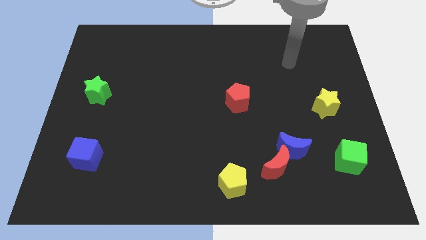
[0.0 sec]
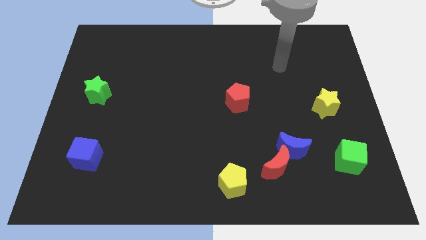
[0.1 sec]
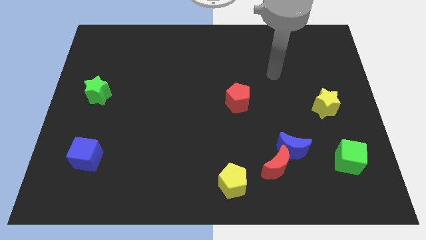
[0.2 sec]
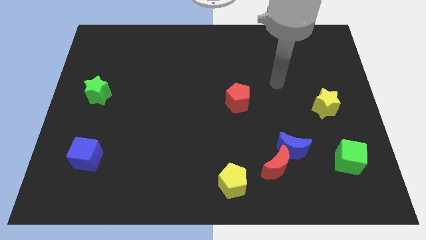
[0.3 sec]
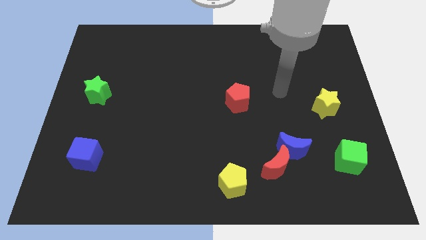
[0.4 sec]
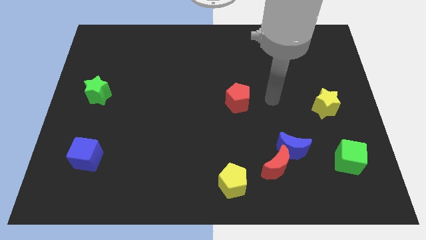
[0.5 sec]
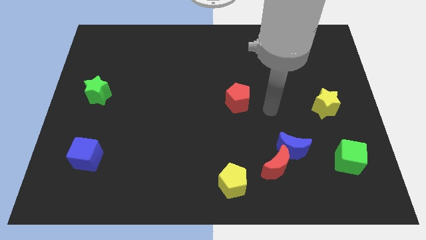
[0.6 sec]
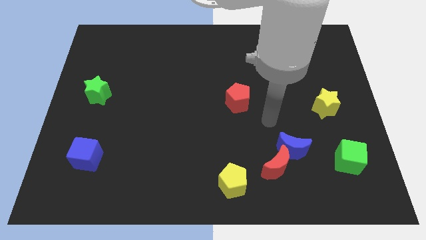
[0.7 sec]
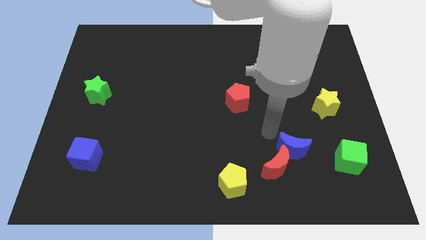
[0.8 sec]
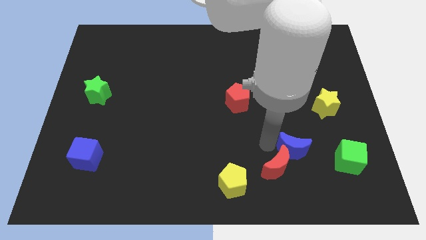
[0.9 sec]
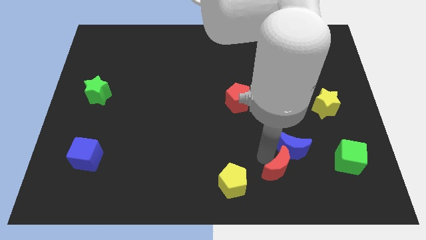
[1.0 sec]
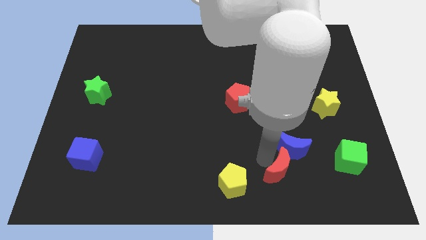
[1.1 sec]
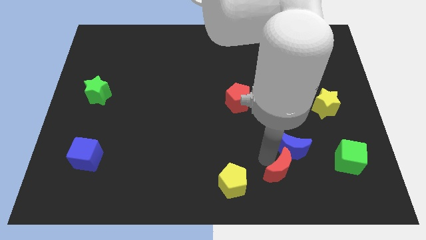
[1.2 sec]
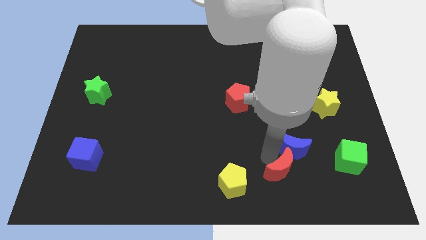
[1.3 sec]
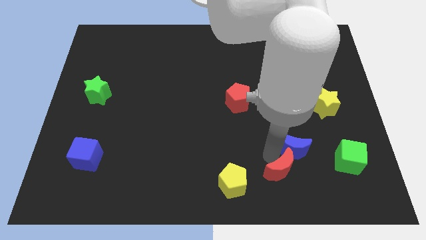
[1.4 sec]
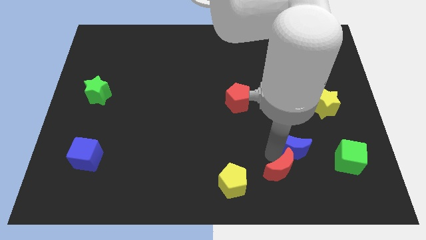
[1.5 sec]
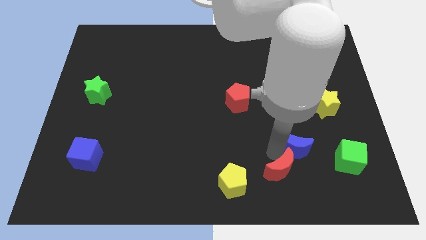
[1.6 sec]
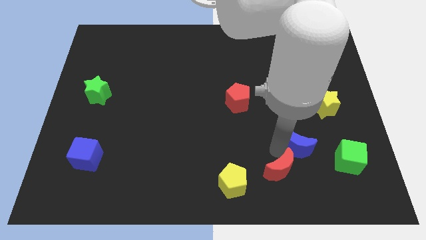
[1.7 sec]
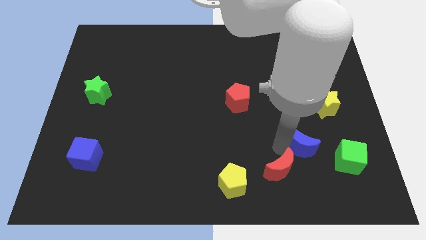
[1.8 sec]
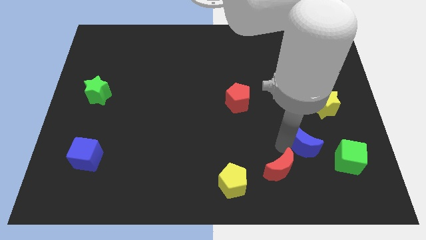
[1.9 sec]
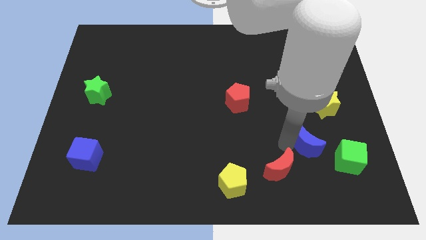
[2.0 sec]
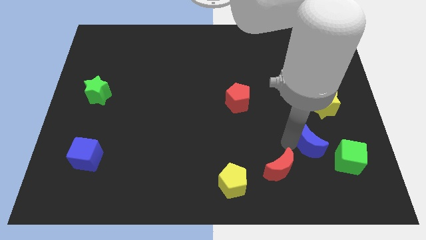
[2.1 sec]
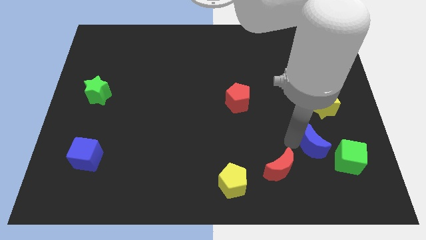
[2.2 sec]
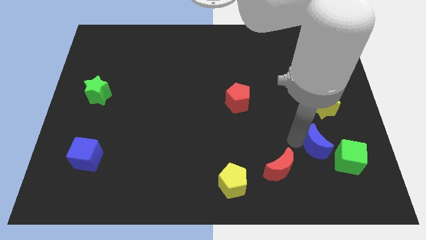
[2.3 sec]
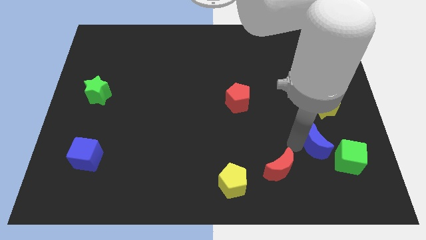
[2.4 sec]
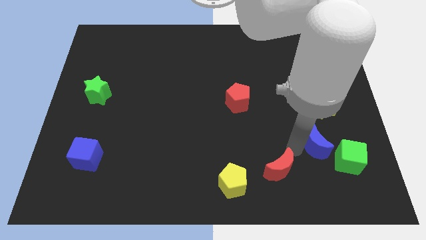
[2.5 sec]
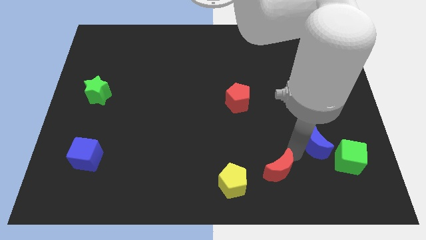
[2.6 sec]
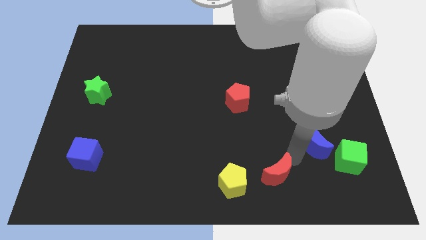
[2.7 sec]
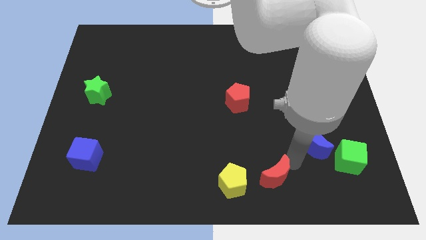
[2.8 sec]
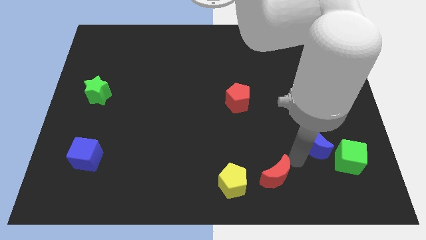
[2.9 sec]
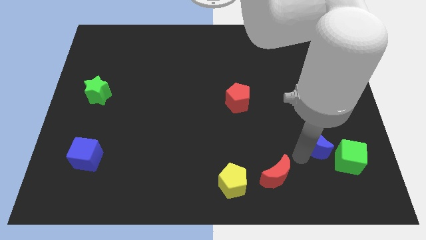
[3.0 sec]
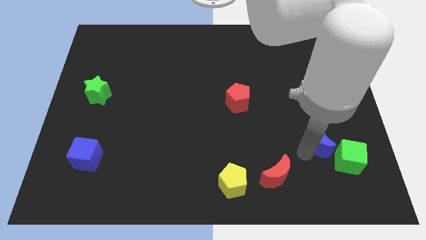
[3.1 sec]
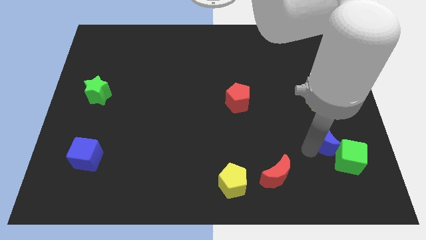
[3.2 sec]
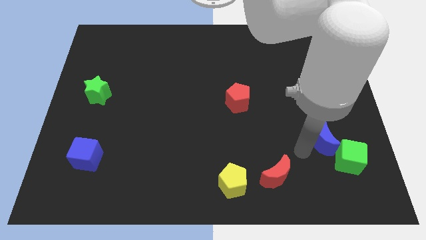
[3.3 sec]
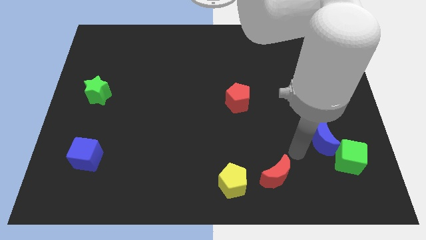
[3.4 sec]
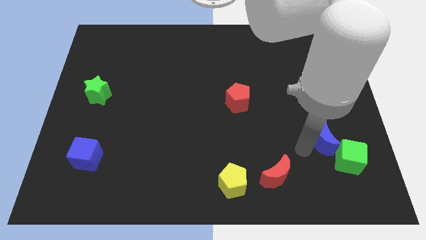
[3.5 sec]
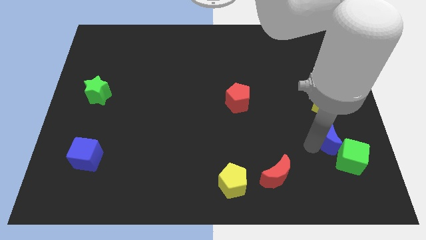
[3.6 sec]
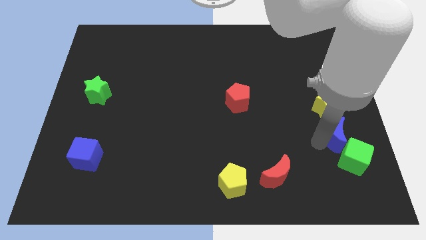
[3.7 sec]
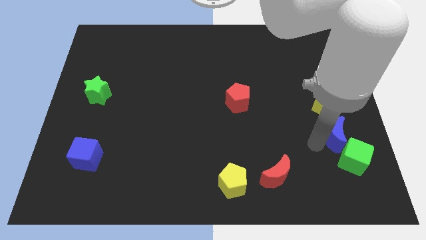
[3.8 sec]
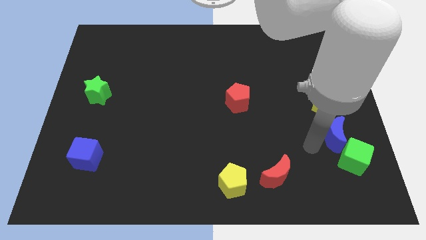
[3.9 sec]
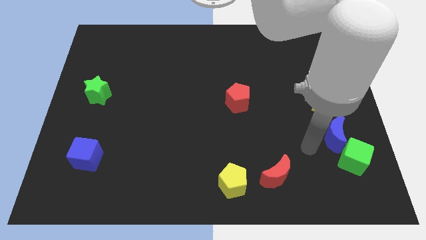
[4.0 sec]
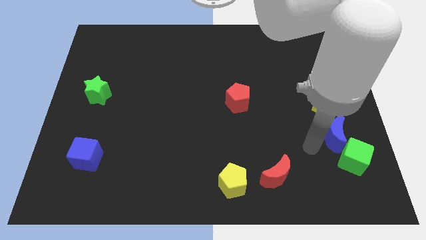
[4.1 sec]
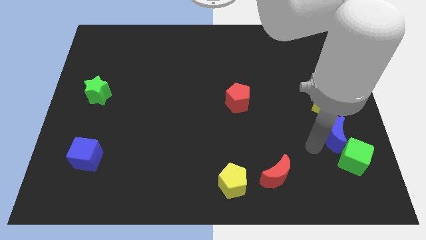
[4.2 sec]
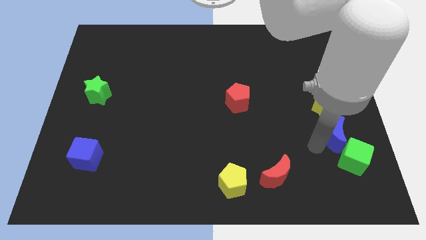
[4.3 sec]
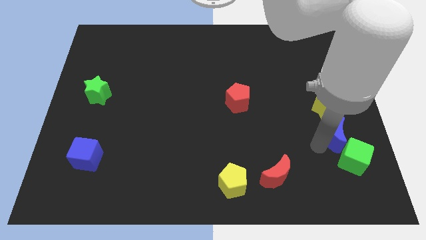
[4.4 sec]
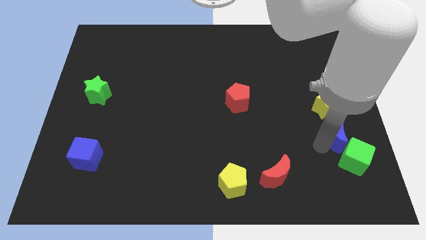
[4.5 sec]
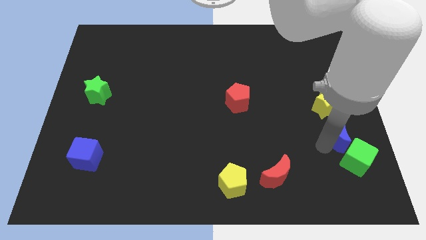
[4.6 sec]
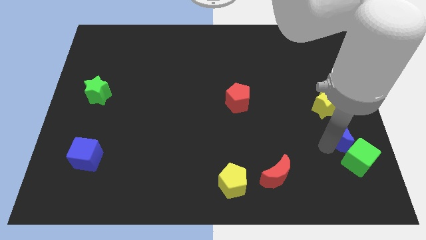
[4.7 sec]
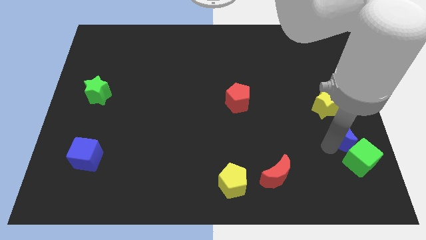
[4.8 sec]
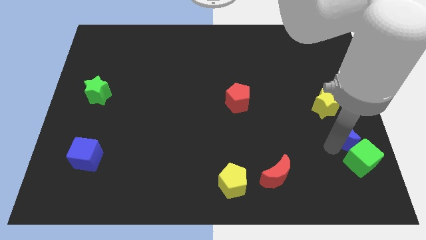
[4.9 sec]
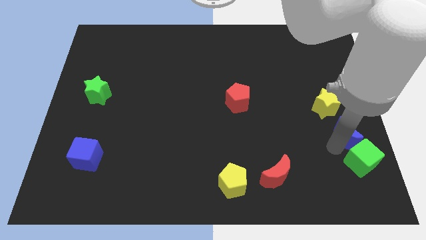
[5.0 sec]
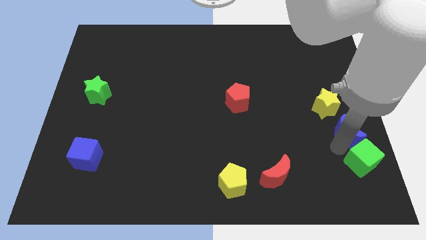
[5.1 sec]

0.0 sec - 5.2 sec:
move the blue moon to the center right

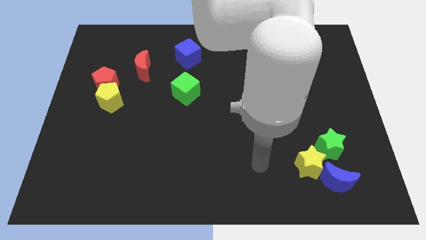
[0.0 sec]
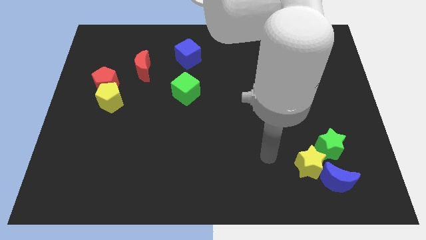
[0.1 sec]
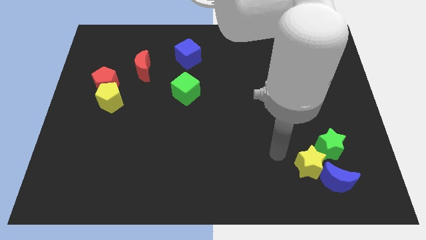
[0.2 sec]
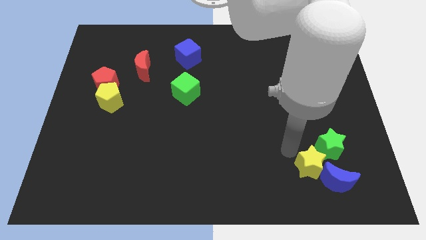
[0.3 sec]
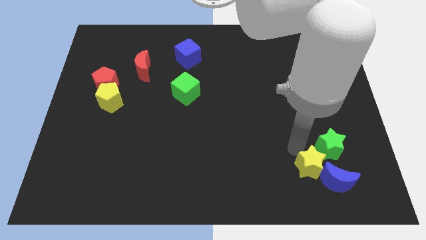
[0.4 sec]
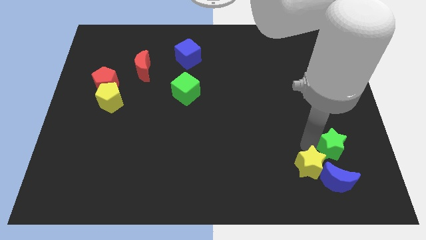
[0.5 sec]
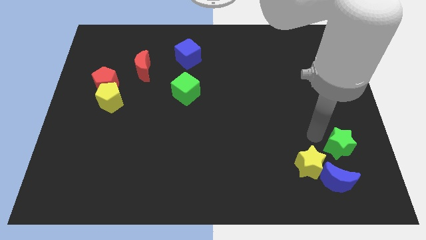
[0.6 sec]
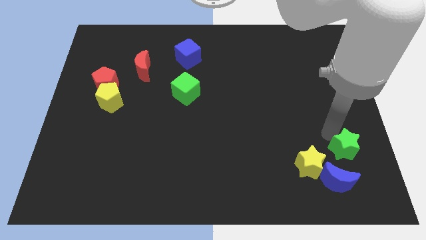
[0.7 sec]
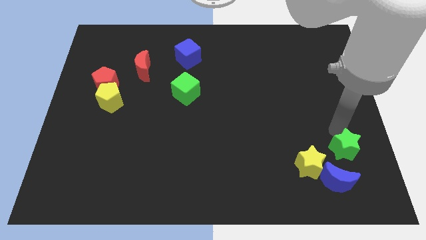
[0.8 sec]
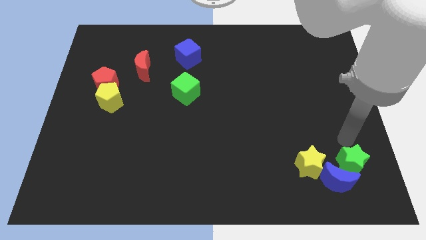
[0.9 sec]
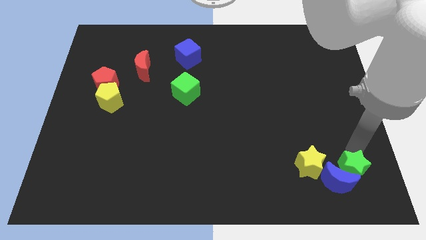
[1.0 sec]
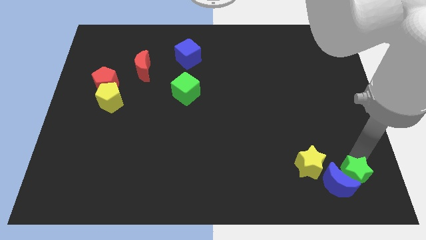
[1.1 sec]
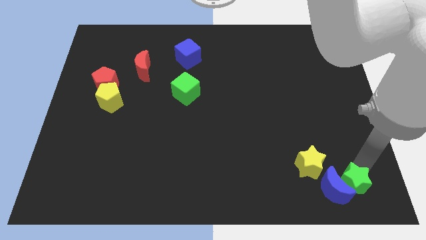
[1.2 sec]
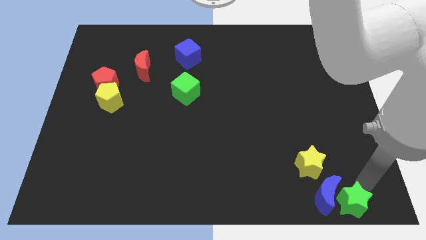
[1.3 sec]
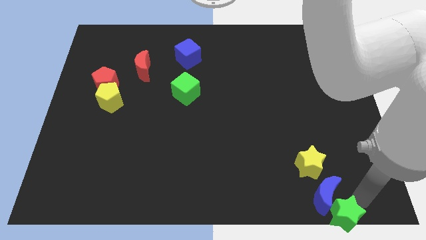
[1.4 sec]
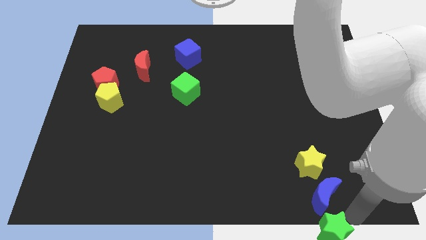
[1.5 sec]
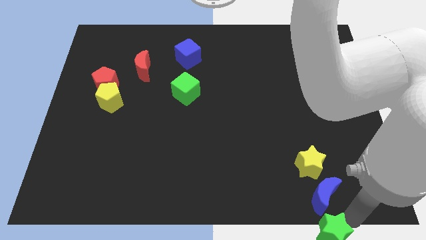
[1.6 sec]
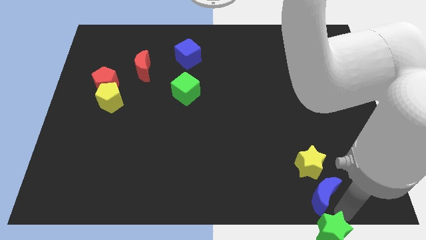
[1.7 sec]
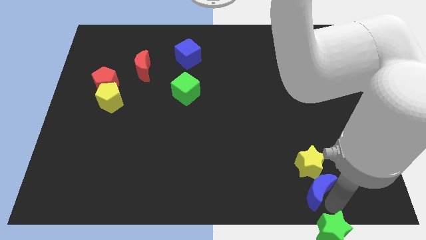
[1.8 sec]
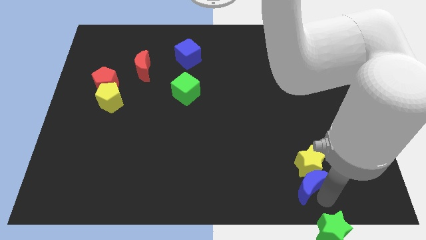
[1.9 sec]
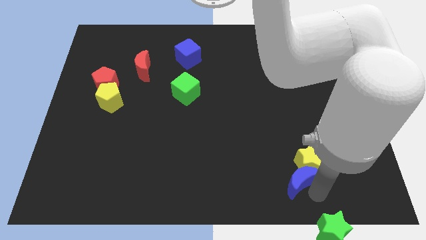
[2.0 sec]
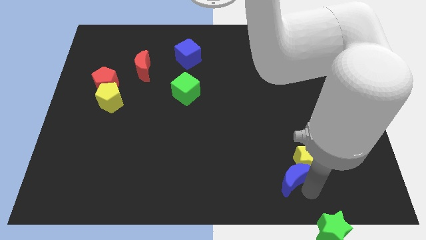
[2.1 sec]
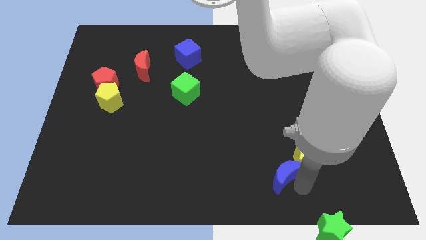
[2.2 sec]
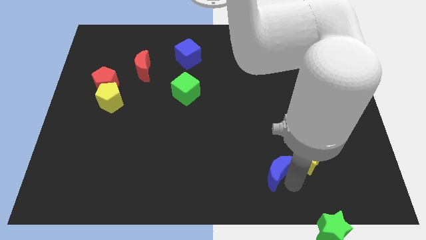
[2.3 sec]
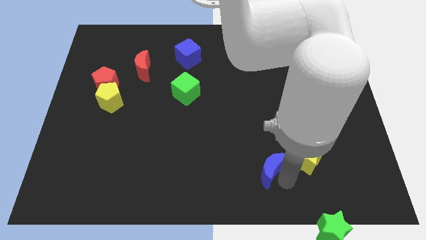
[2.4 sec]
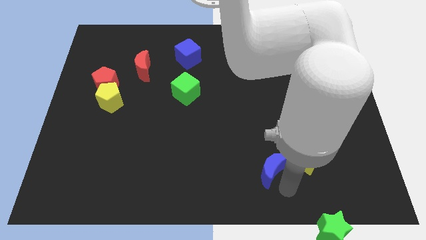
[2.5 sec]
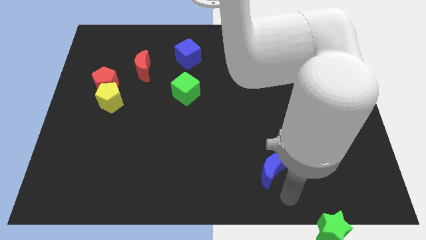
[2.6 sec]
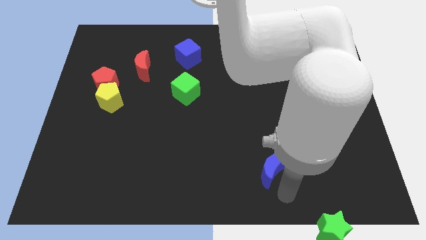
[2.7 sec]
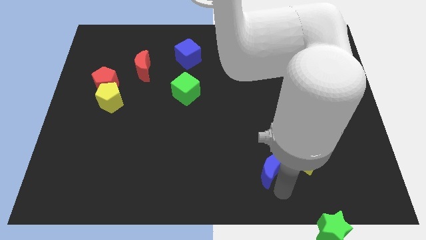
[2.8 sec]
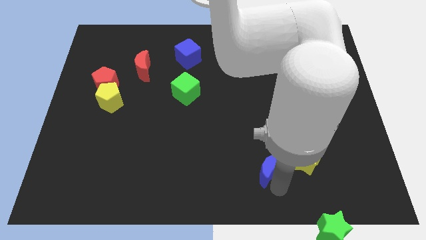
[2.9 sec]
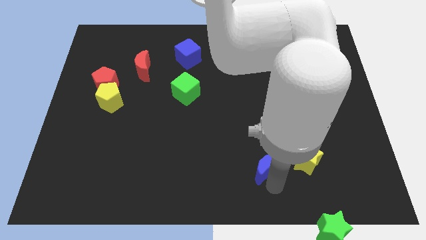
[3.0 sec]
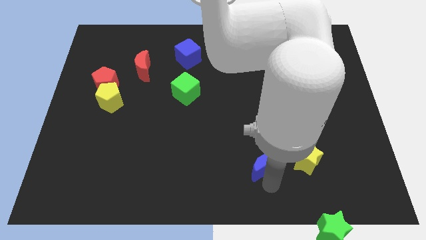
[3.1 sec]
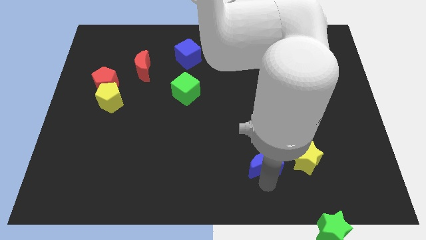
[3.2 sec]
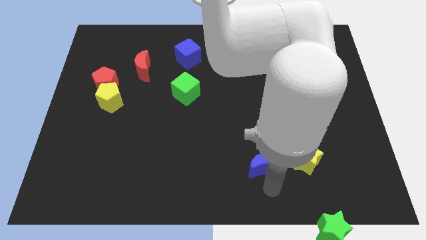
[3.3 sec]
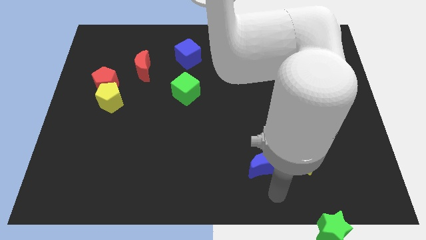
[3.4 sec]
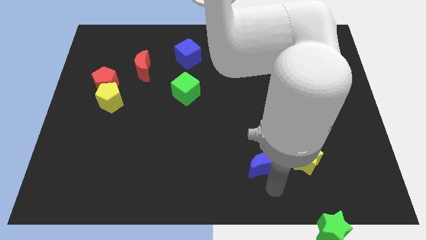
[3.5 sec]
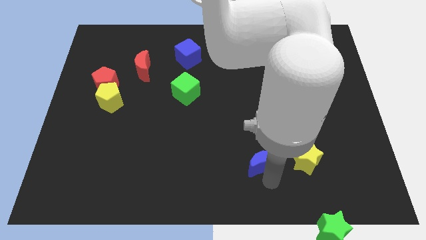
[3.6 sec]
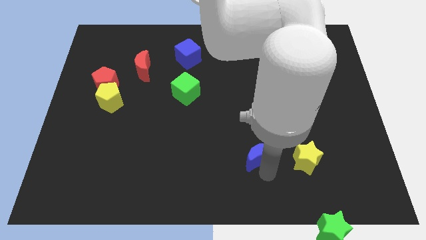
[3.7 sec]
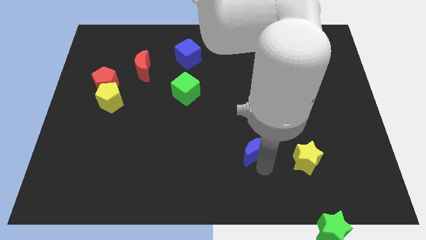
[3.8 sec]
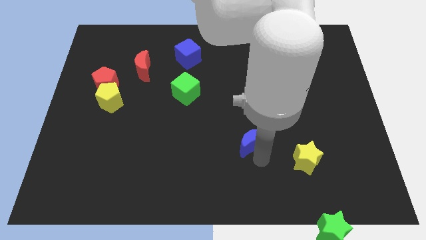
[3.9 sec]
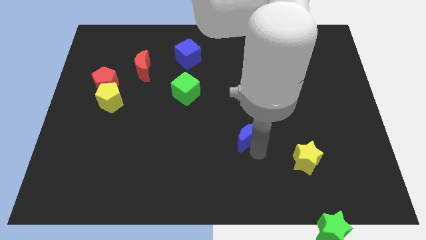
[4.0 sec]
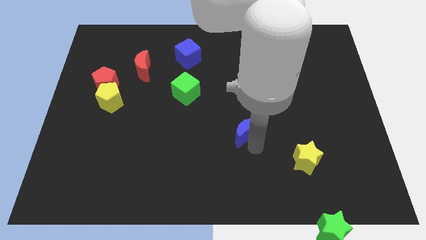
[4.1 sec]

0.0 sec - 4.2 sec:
put the blue moon to the center
